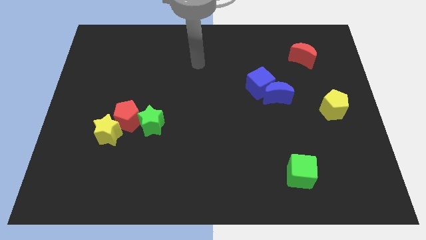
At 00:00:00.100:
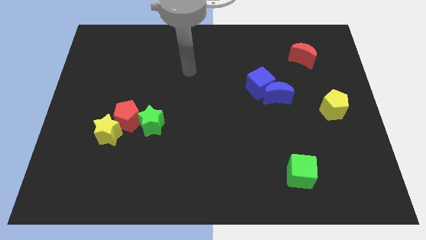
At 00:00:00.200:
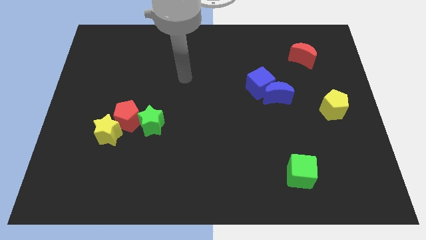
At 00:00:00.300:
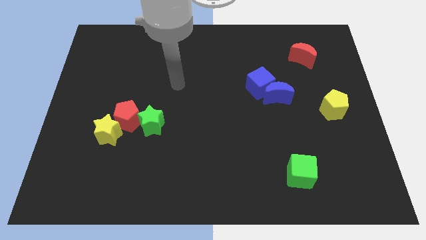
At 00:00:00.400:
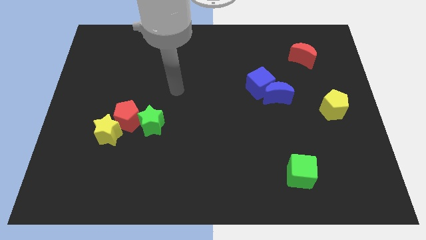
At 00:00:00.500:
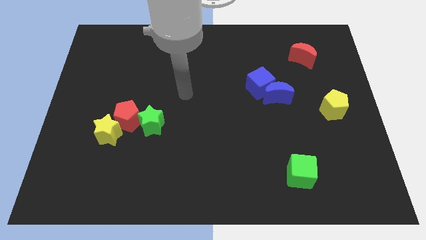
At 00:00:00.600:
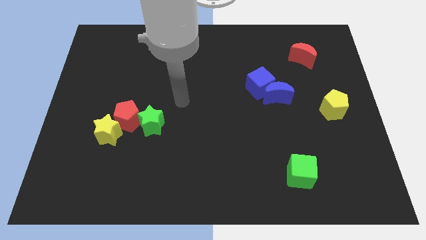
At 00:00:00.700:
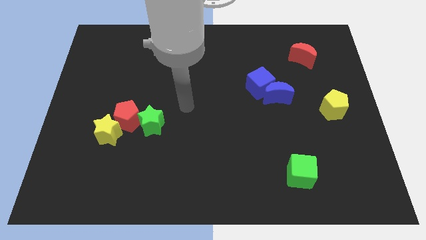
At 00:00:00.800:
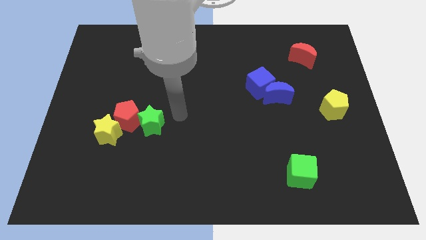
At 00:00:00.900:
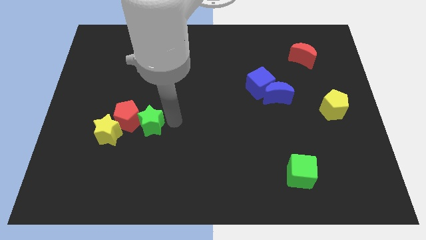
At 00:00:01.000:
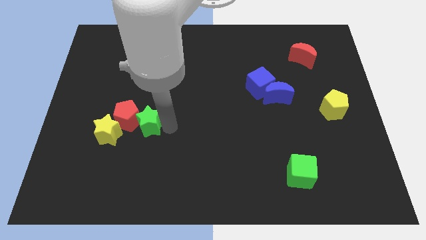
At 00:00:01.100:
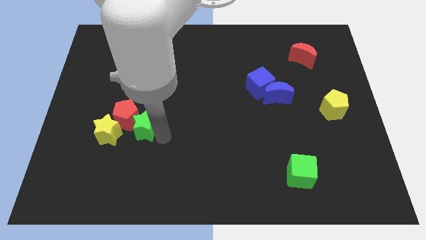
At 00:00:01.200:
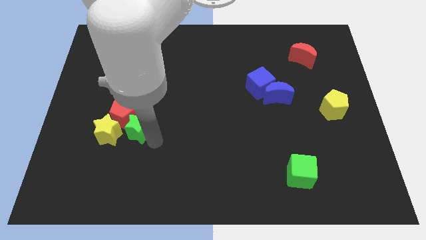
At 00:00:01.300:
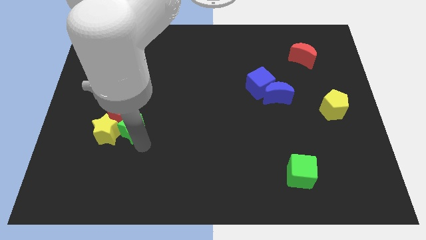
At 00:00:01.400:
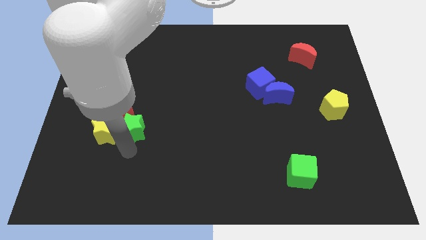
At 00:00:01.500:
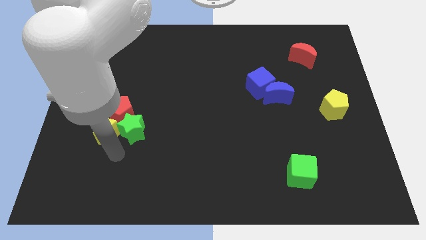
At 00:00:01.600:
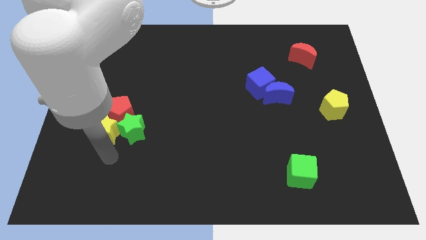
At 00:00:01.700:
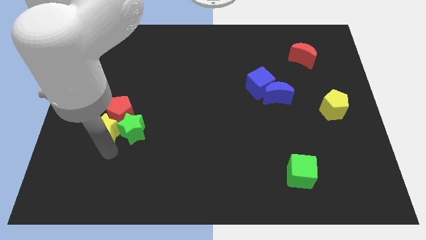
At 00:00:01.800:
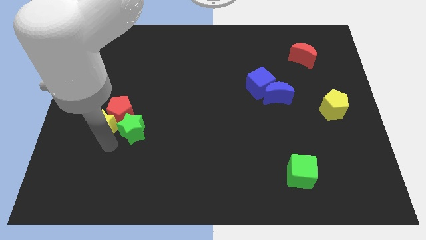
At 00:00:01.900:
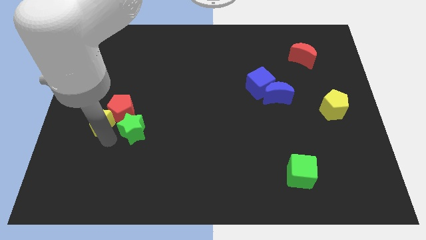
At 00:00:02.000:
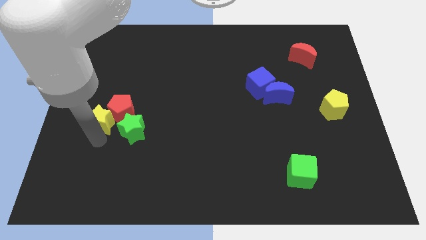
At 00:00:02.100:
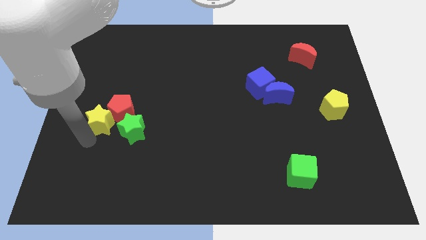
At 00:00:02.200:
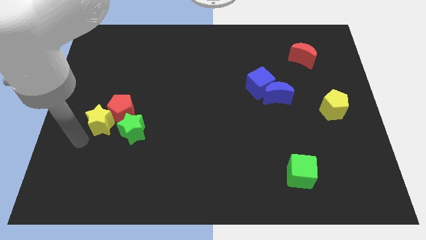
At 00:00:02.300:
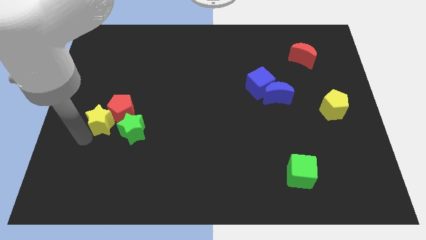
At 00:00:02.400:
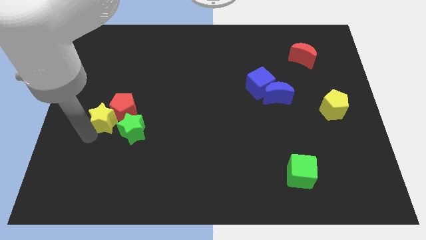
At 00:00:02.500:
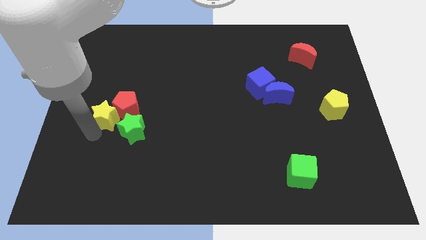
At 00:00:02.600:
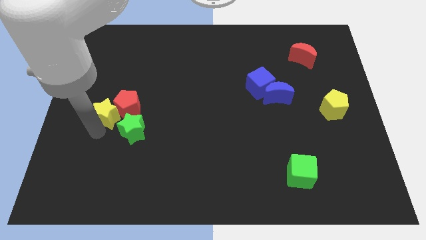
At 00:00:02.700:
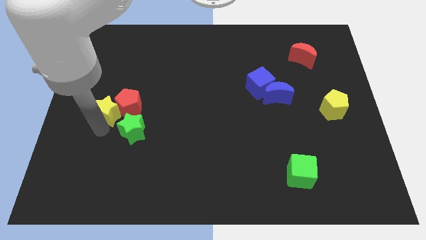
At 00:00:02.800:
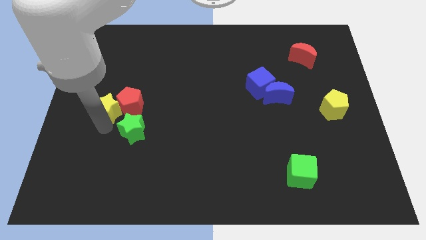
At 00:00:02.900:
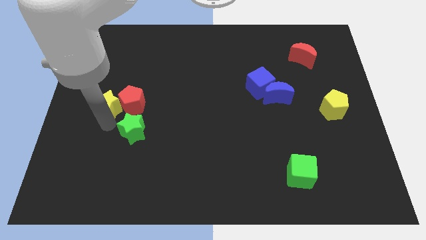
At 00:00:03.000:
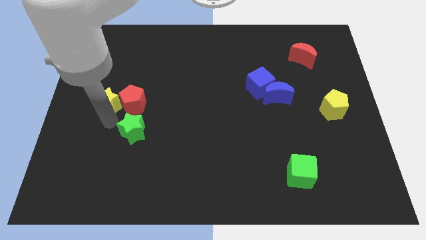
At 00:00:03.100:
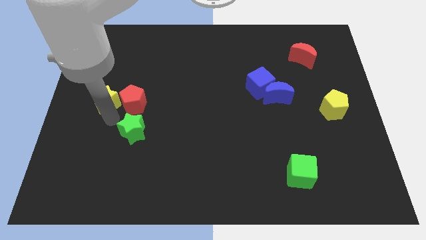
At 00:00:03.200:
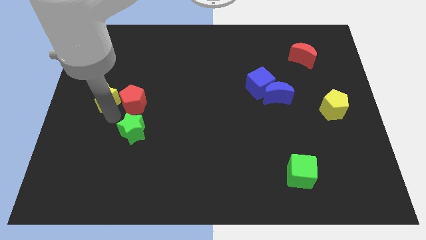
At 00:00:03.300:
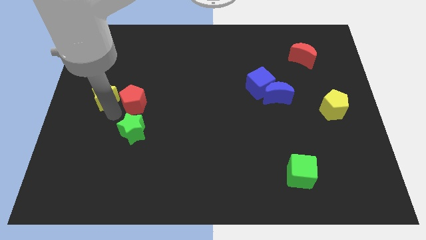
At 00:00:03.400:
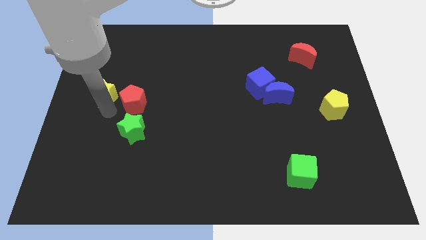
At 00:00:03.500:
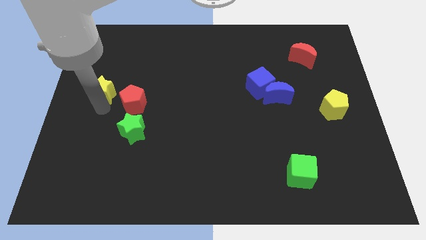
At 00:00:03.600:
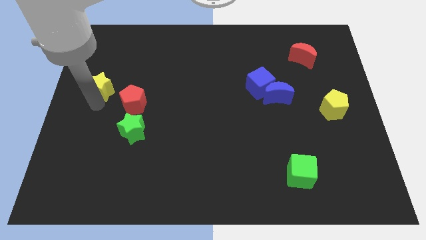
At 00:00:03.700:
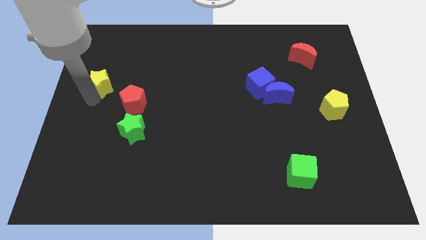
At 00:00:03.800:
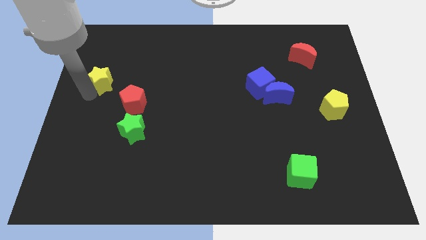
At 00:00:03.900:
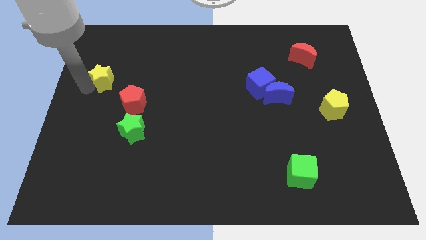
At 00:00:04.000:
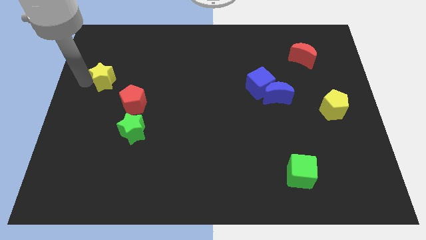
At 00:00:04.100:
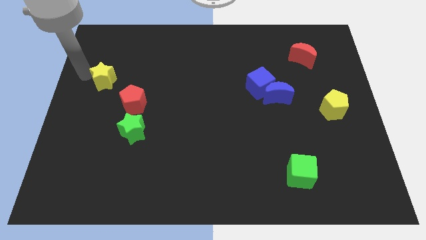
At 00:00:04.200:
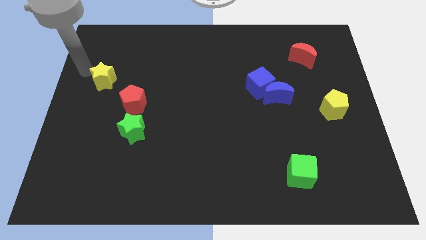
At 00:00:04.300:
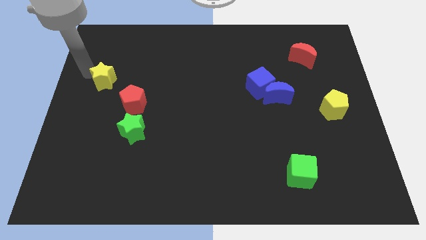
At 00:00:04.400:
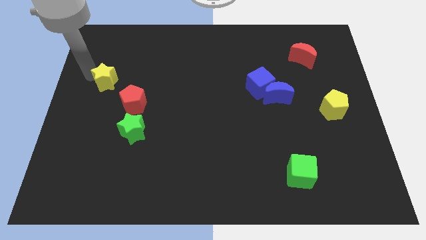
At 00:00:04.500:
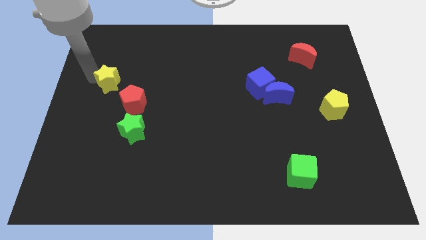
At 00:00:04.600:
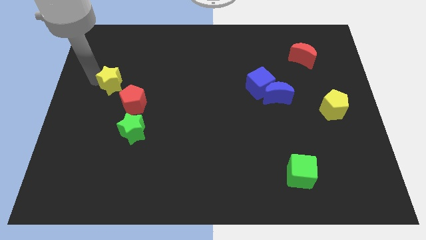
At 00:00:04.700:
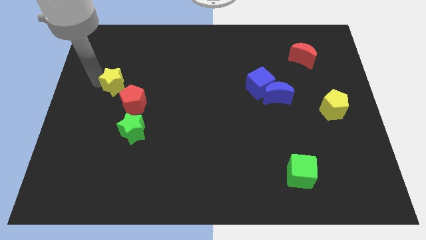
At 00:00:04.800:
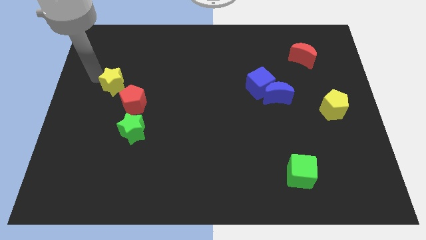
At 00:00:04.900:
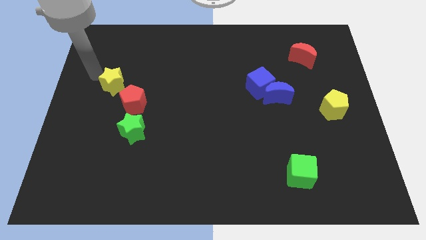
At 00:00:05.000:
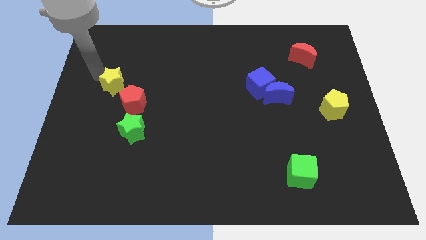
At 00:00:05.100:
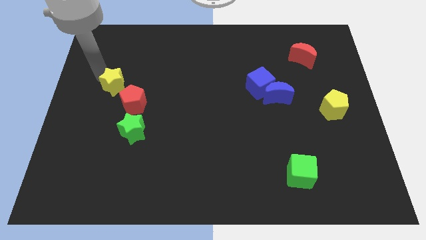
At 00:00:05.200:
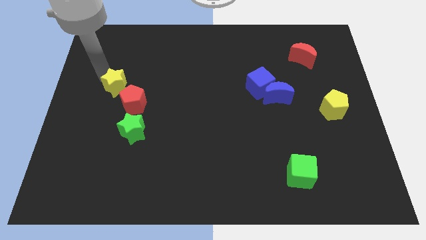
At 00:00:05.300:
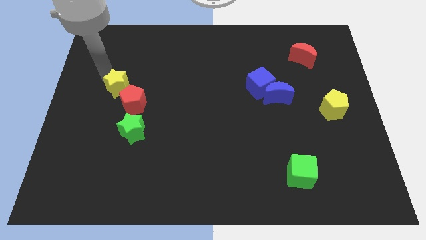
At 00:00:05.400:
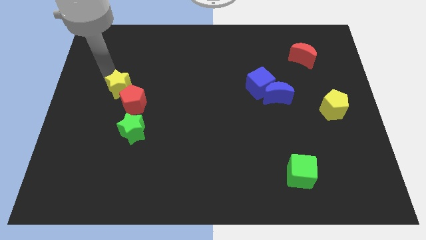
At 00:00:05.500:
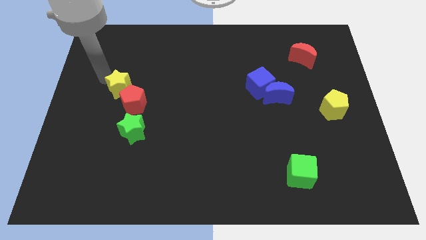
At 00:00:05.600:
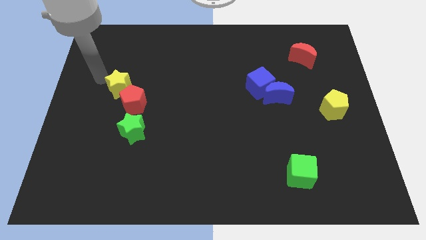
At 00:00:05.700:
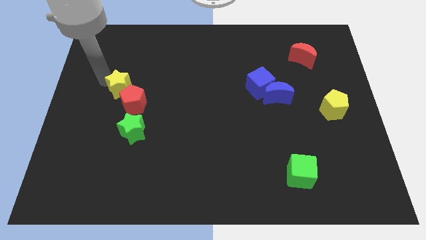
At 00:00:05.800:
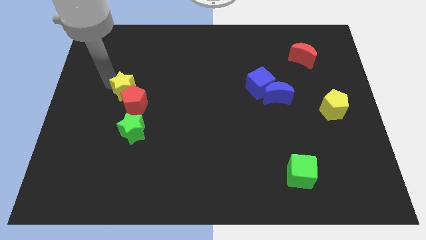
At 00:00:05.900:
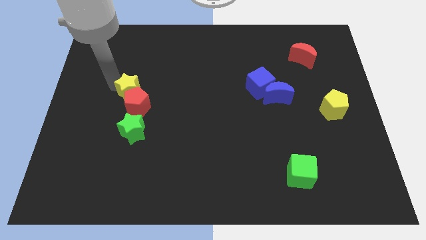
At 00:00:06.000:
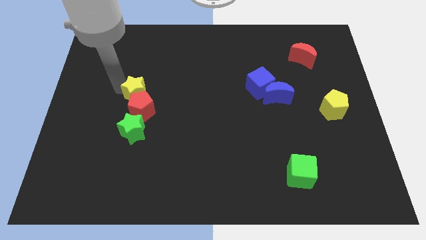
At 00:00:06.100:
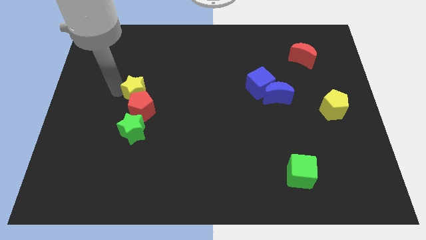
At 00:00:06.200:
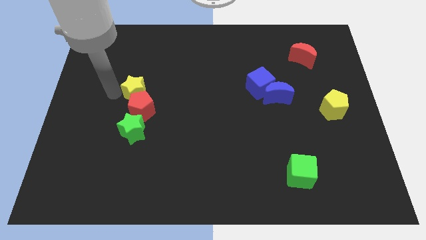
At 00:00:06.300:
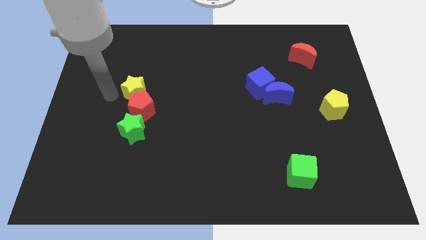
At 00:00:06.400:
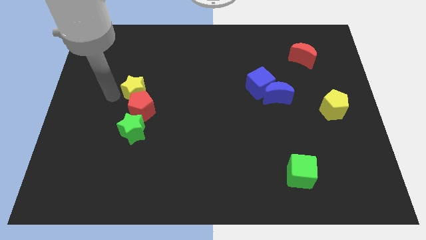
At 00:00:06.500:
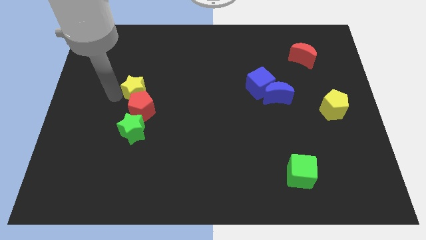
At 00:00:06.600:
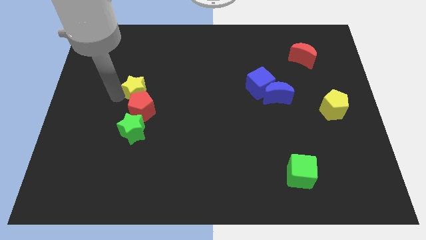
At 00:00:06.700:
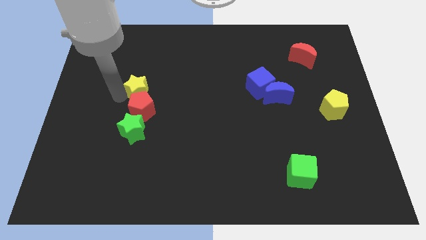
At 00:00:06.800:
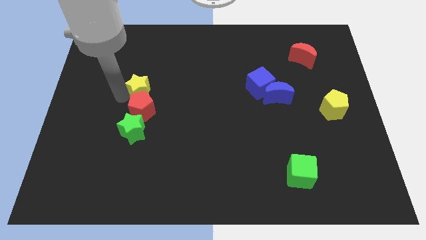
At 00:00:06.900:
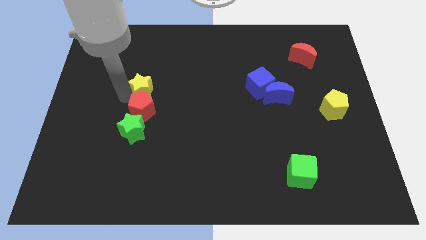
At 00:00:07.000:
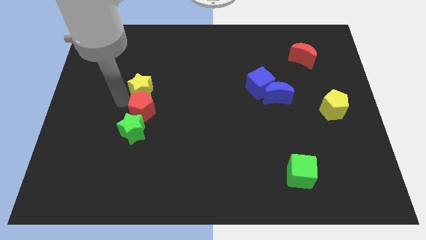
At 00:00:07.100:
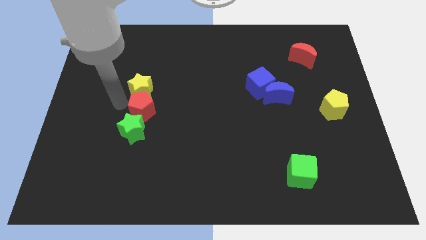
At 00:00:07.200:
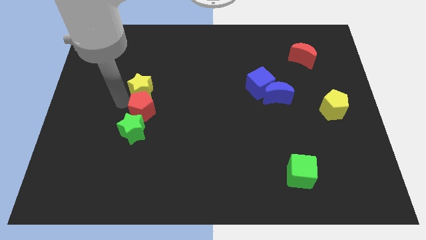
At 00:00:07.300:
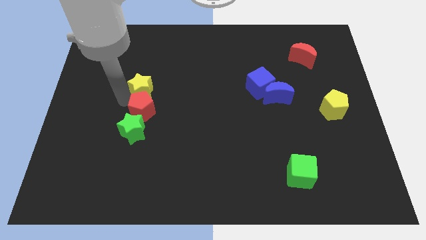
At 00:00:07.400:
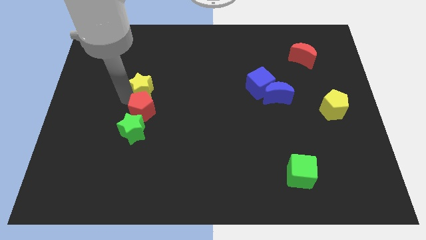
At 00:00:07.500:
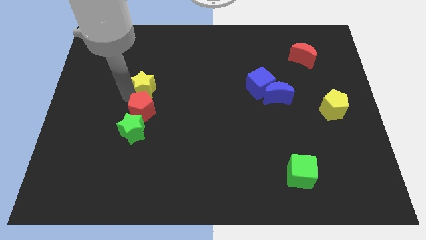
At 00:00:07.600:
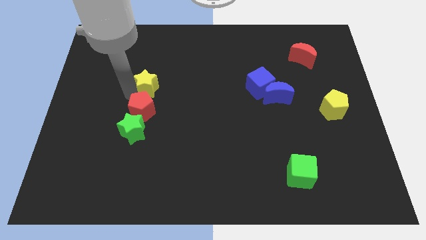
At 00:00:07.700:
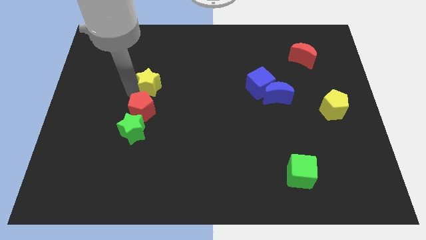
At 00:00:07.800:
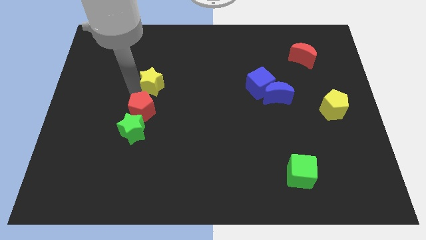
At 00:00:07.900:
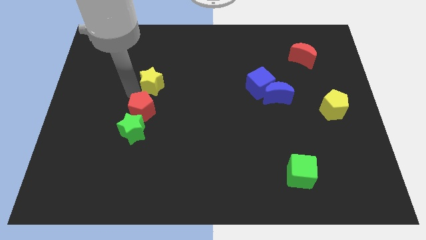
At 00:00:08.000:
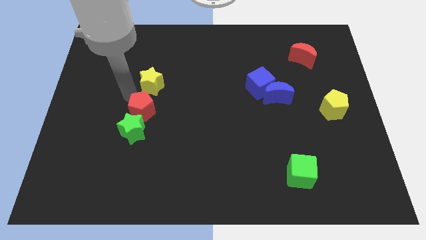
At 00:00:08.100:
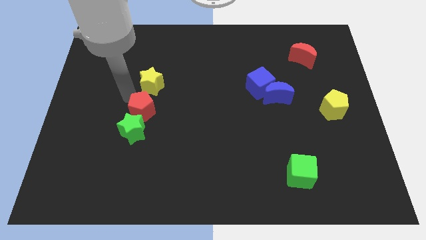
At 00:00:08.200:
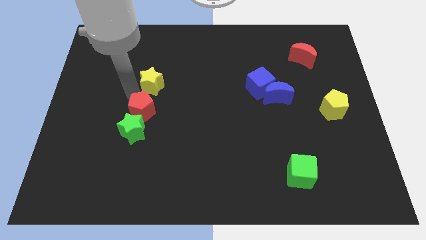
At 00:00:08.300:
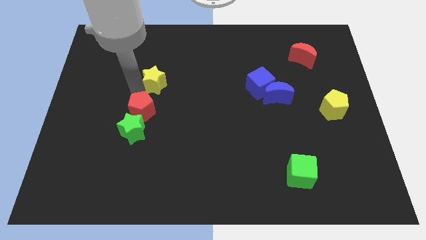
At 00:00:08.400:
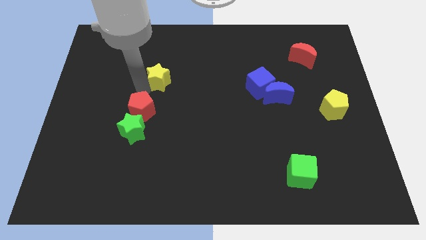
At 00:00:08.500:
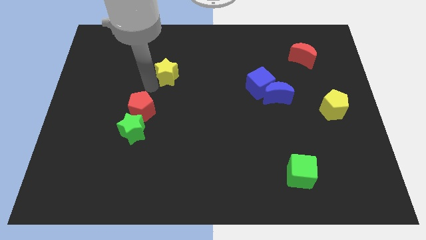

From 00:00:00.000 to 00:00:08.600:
slide the yellow star upwards and to the right
